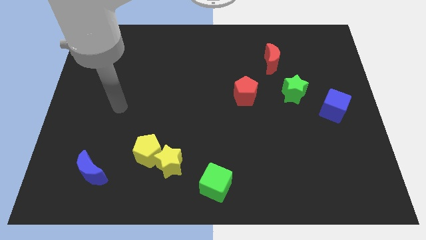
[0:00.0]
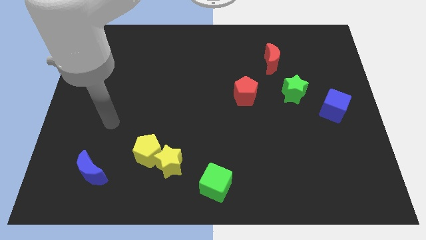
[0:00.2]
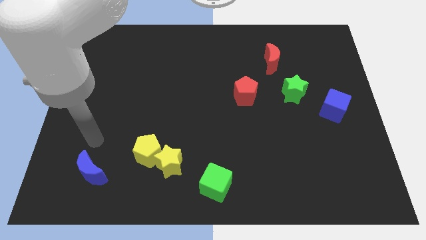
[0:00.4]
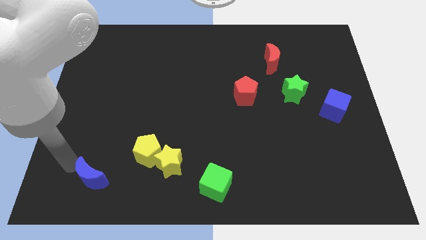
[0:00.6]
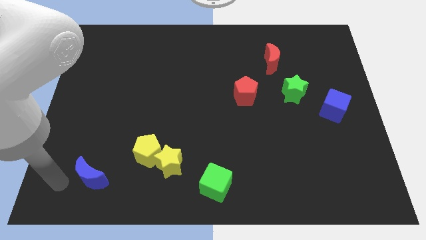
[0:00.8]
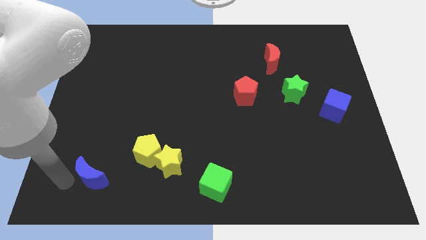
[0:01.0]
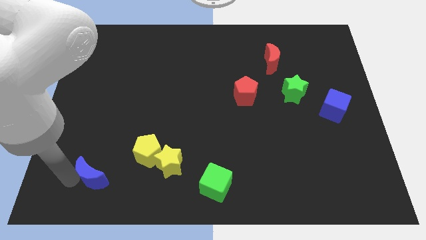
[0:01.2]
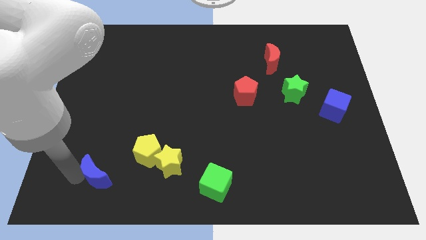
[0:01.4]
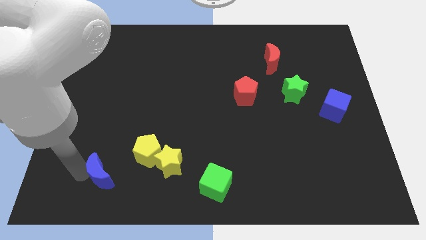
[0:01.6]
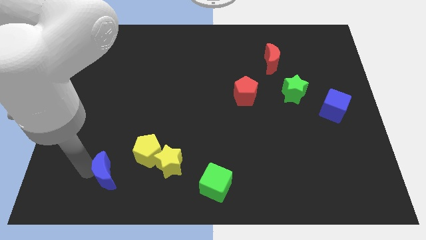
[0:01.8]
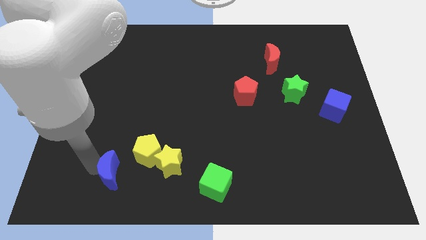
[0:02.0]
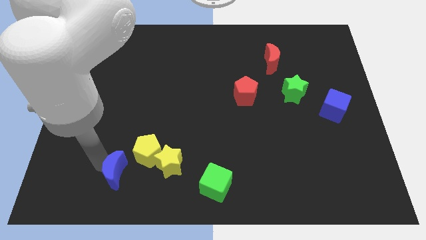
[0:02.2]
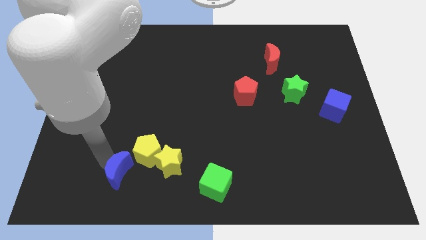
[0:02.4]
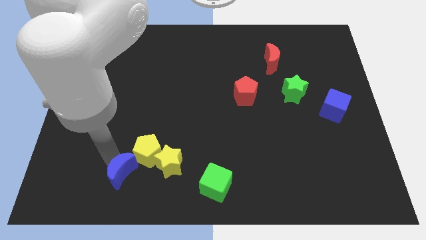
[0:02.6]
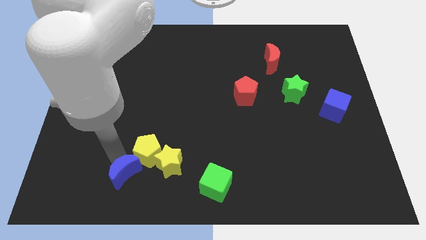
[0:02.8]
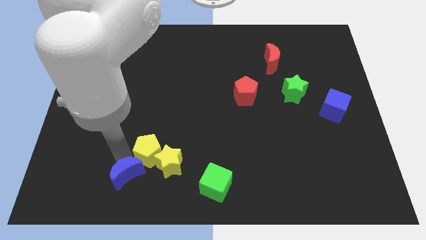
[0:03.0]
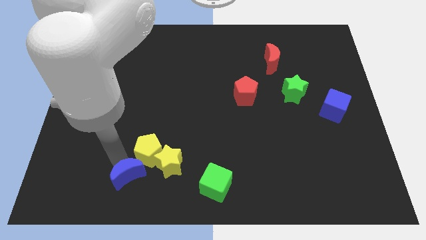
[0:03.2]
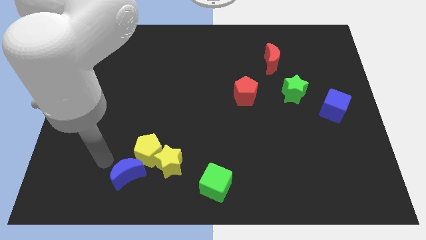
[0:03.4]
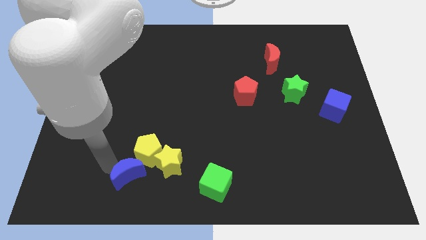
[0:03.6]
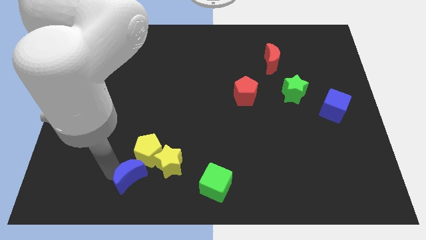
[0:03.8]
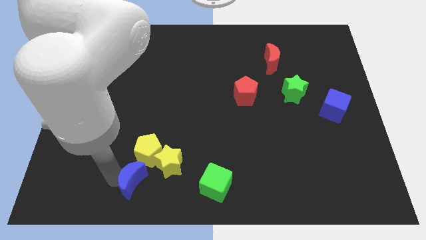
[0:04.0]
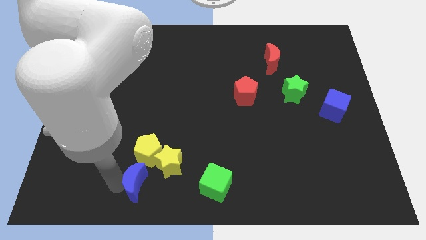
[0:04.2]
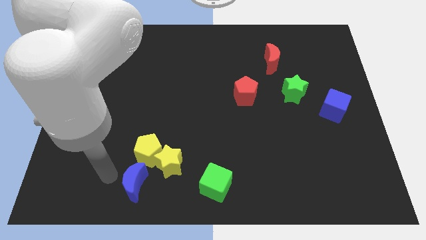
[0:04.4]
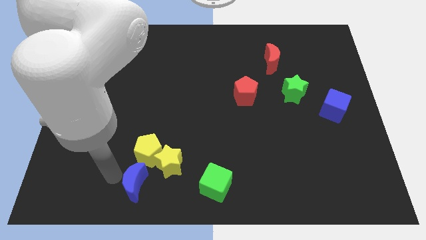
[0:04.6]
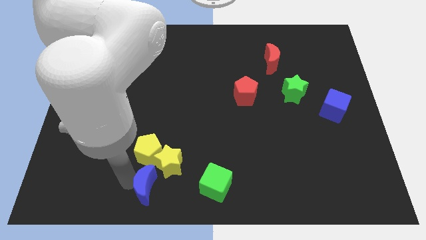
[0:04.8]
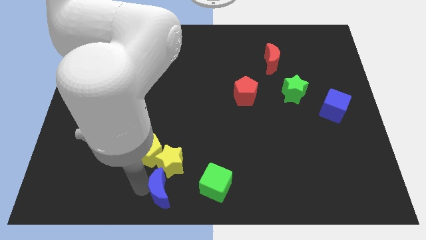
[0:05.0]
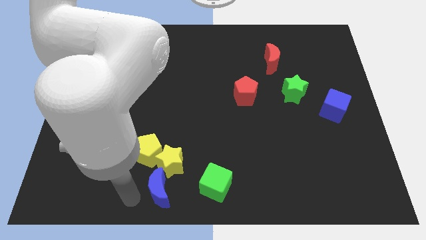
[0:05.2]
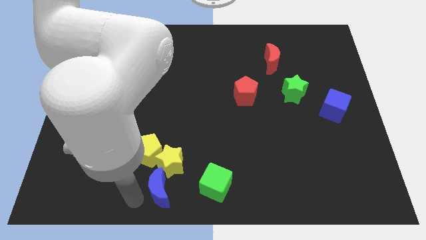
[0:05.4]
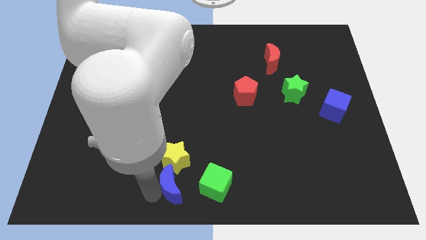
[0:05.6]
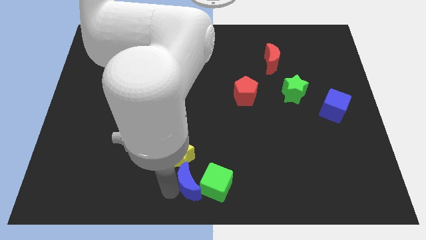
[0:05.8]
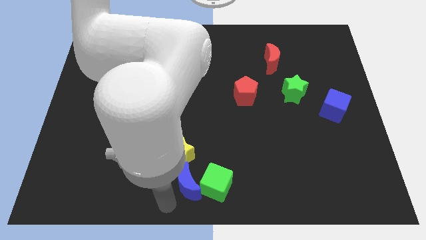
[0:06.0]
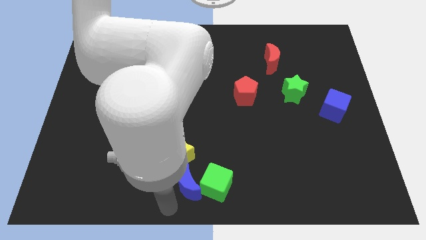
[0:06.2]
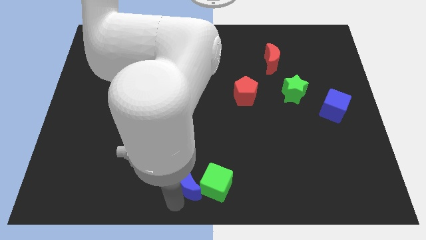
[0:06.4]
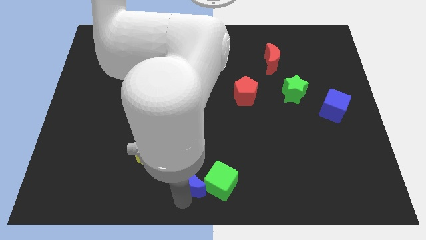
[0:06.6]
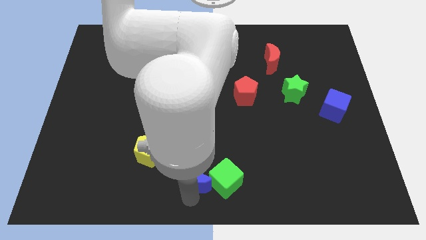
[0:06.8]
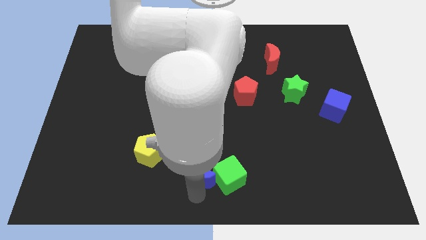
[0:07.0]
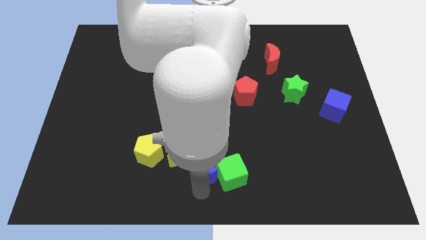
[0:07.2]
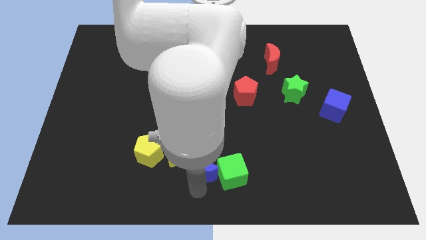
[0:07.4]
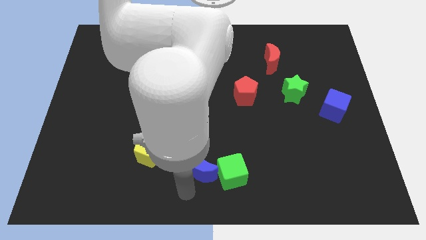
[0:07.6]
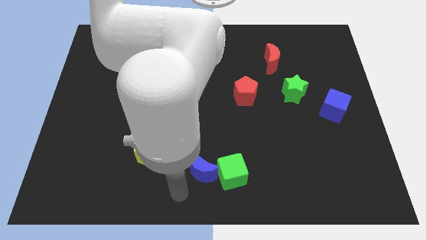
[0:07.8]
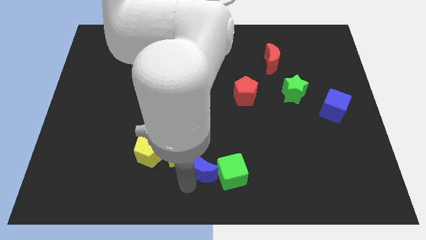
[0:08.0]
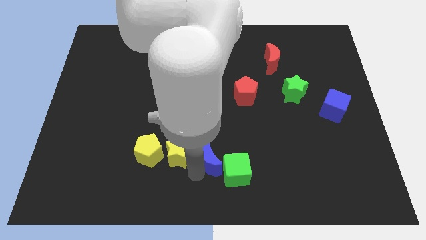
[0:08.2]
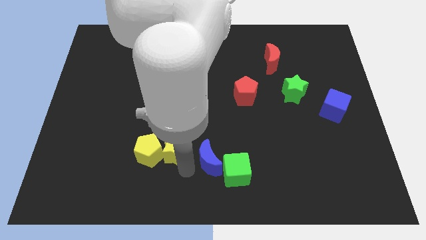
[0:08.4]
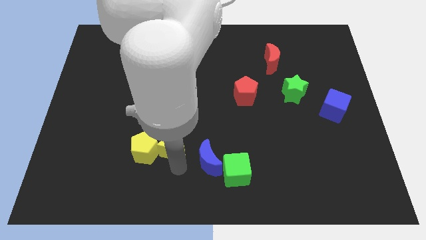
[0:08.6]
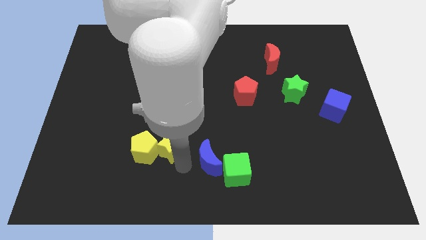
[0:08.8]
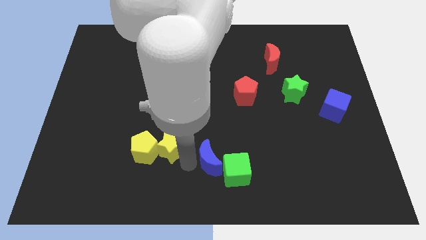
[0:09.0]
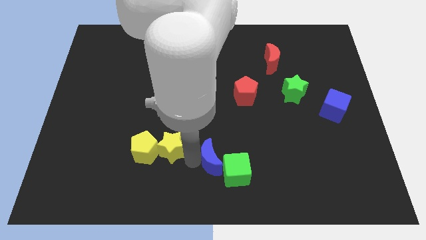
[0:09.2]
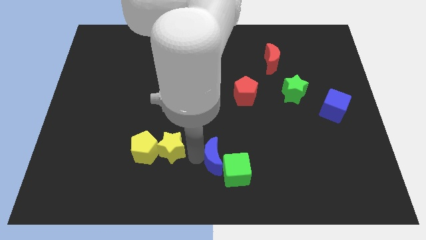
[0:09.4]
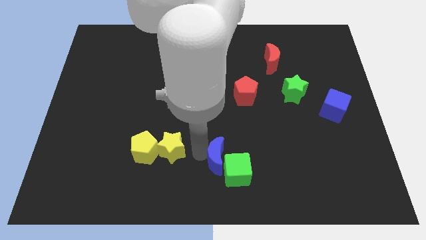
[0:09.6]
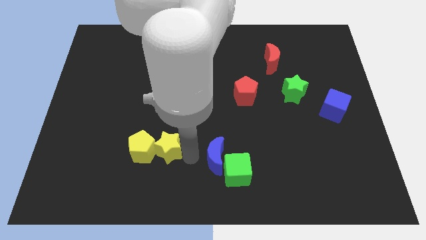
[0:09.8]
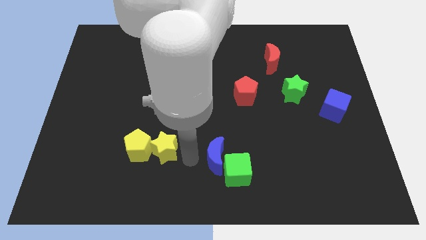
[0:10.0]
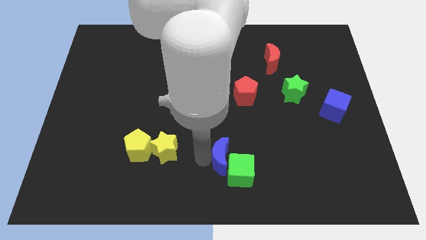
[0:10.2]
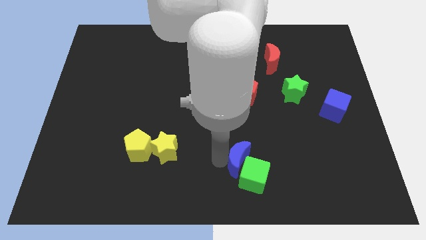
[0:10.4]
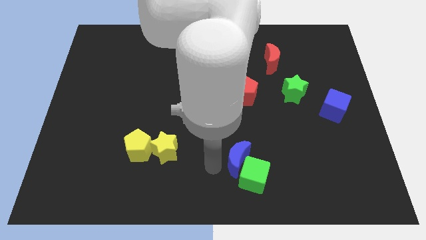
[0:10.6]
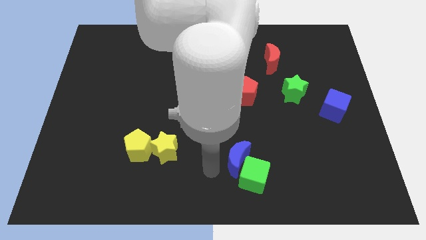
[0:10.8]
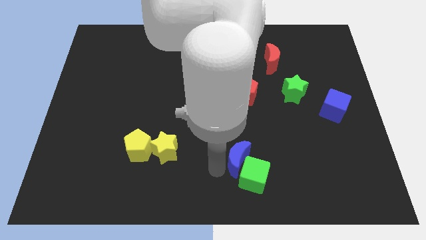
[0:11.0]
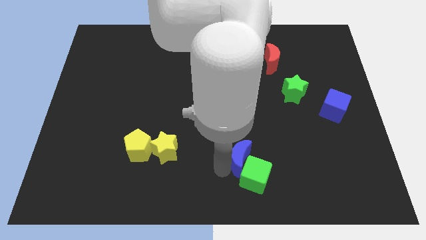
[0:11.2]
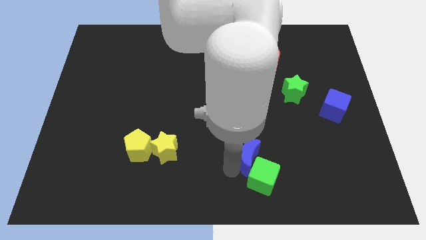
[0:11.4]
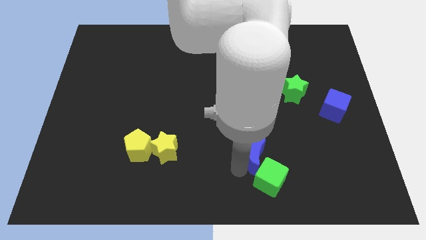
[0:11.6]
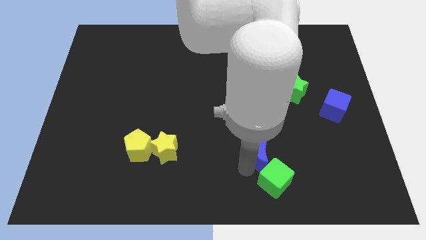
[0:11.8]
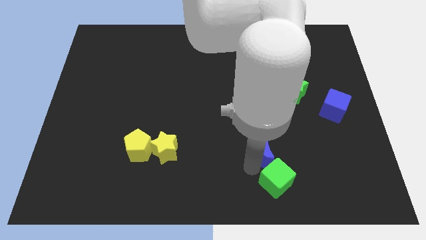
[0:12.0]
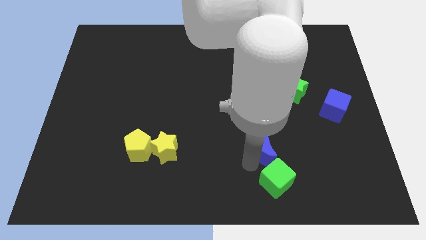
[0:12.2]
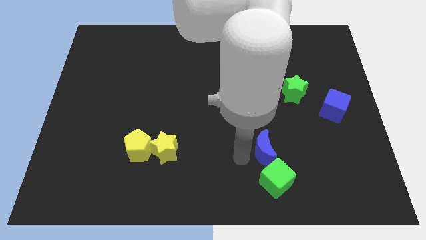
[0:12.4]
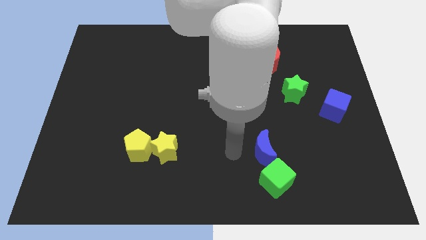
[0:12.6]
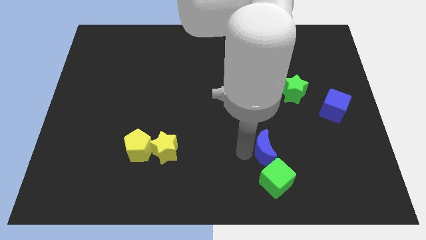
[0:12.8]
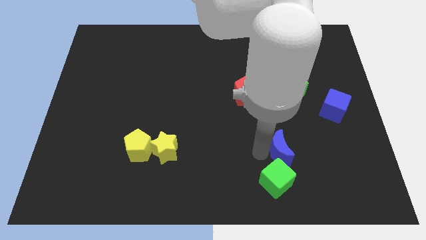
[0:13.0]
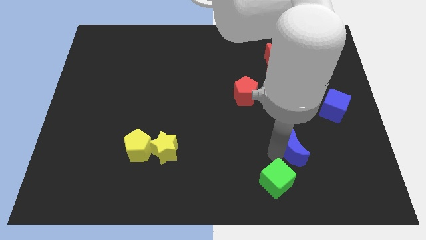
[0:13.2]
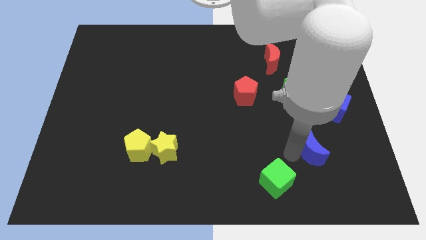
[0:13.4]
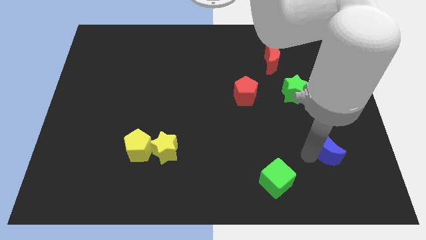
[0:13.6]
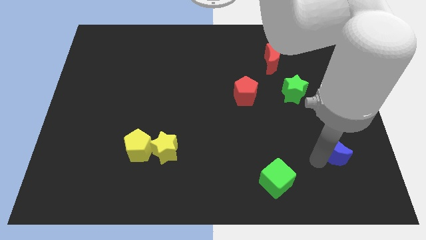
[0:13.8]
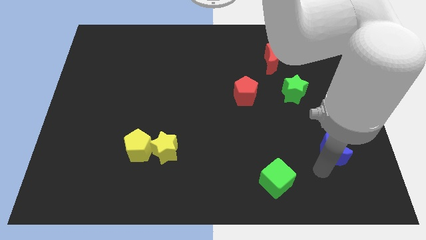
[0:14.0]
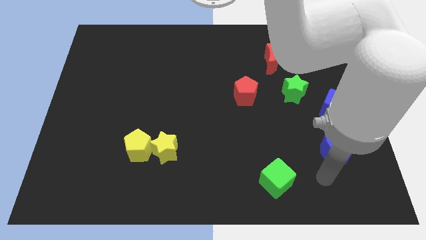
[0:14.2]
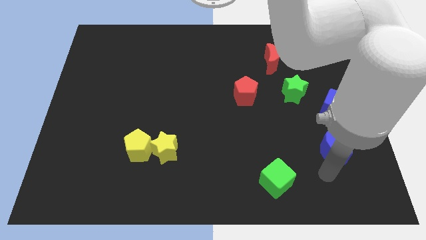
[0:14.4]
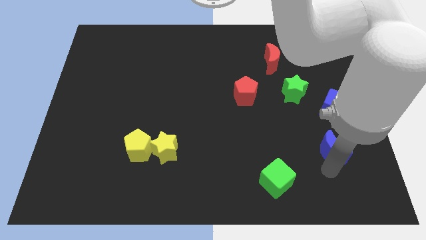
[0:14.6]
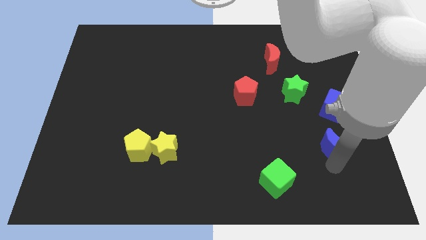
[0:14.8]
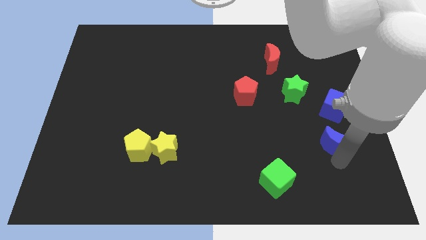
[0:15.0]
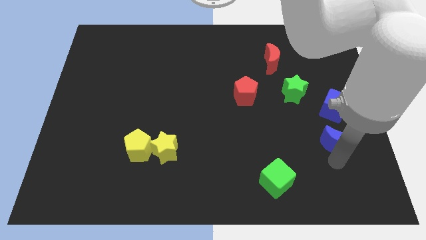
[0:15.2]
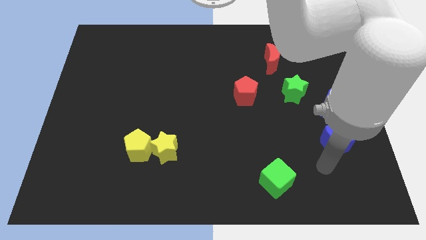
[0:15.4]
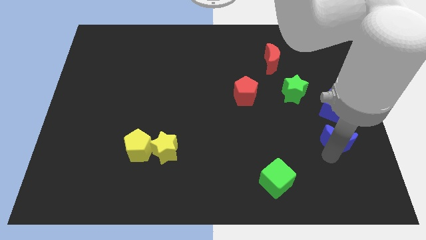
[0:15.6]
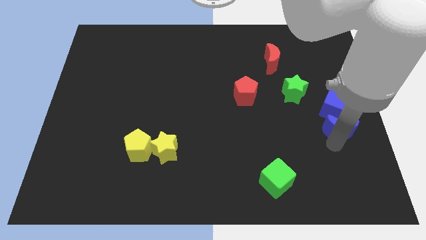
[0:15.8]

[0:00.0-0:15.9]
push the blue moon to the center right

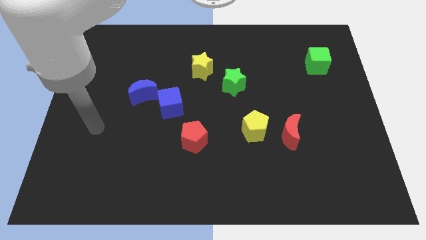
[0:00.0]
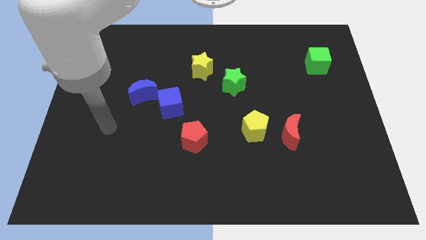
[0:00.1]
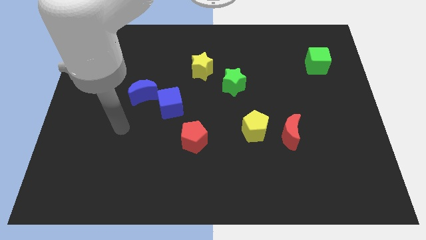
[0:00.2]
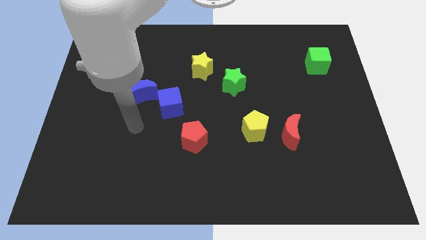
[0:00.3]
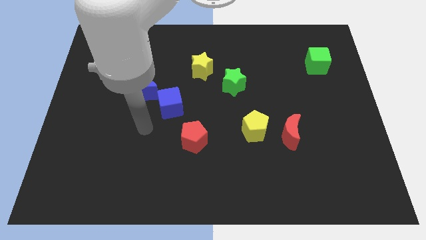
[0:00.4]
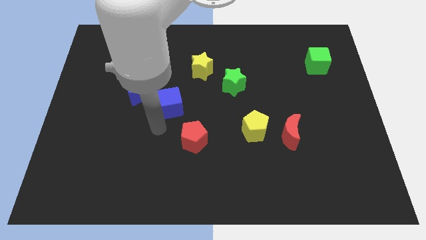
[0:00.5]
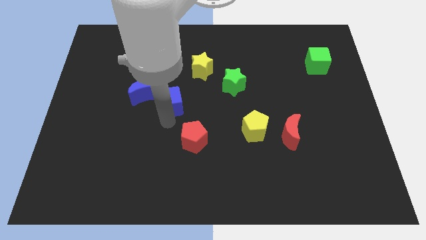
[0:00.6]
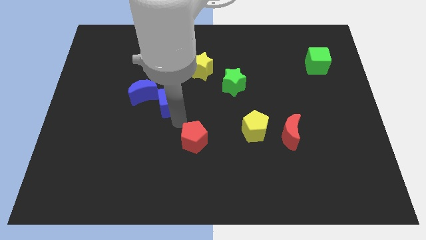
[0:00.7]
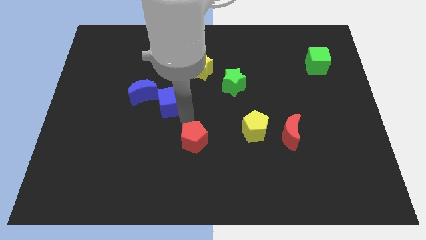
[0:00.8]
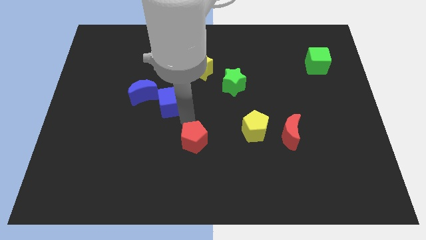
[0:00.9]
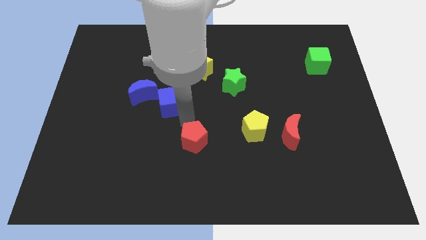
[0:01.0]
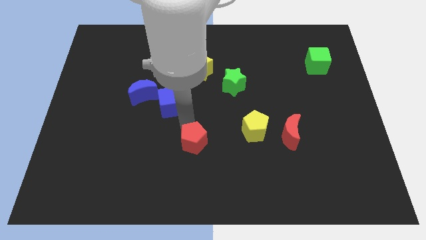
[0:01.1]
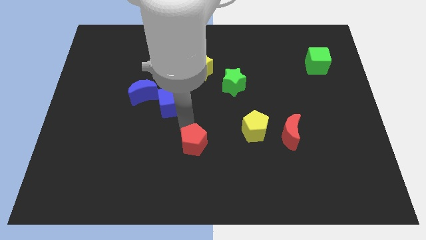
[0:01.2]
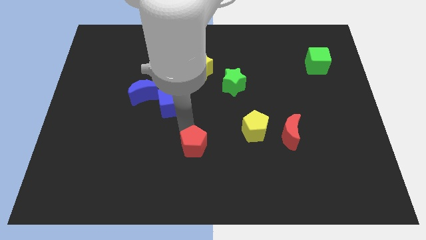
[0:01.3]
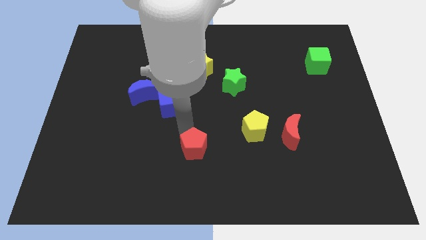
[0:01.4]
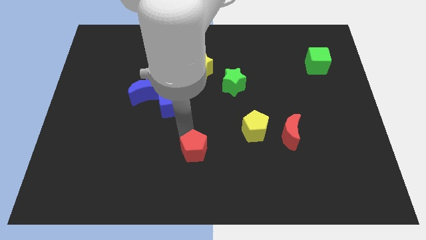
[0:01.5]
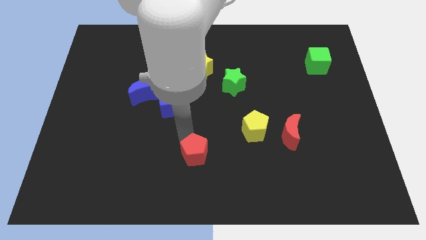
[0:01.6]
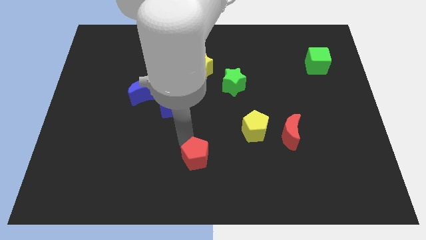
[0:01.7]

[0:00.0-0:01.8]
push the red pentagon to the bottom side
